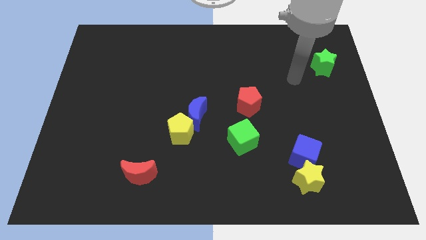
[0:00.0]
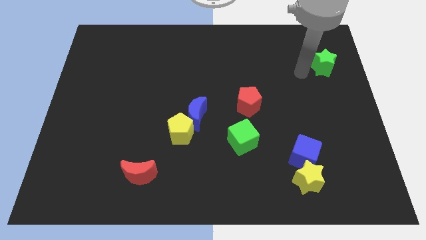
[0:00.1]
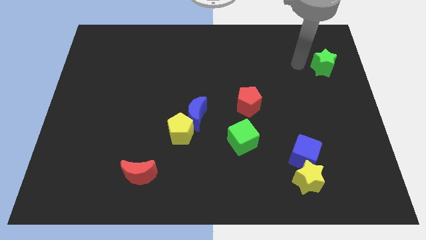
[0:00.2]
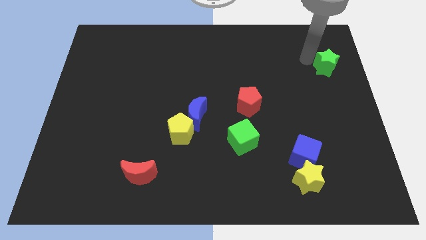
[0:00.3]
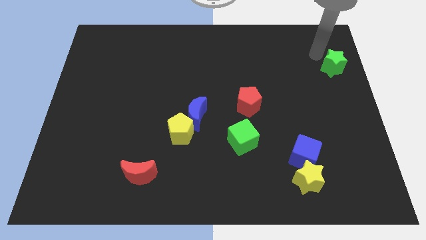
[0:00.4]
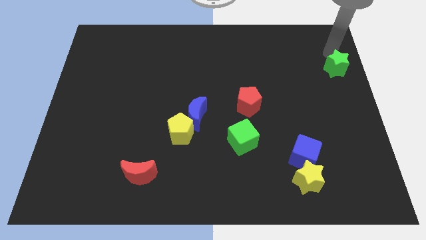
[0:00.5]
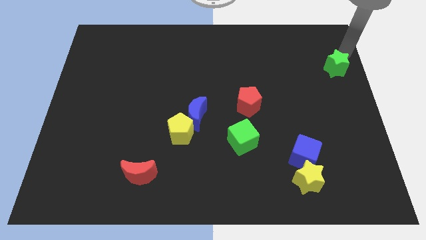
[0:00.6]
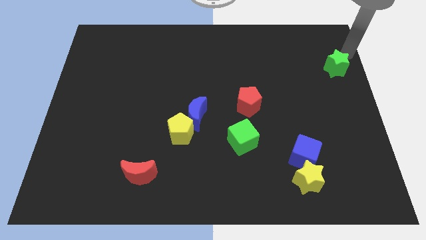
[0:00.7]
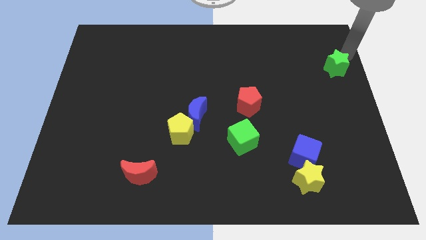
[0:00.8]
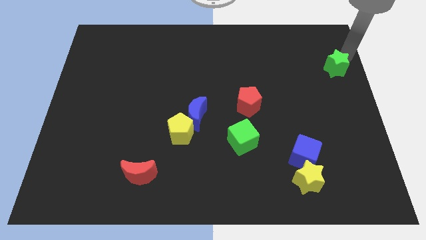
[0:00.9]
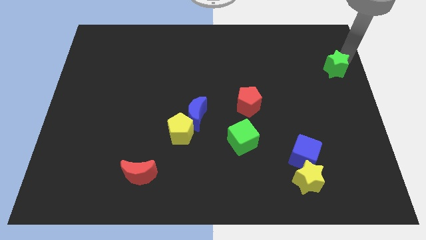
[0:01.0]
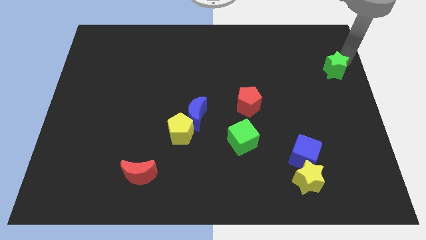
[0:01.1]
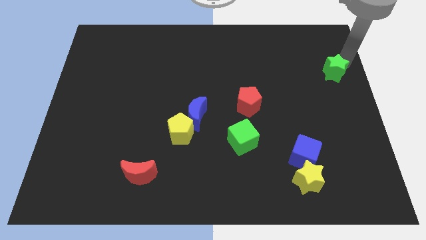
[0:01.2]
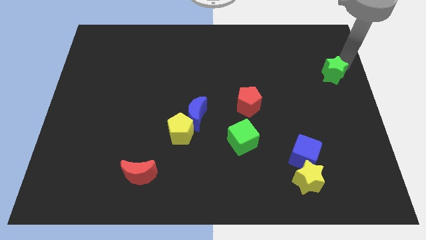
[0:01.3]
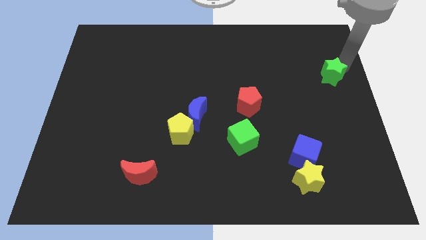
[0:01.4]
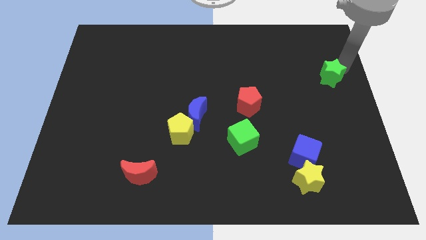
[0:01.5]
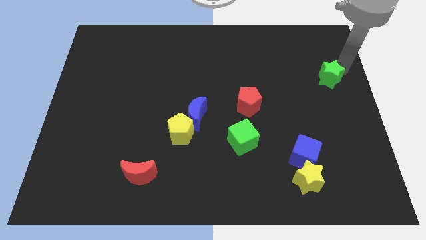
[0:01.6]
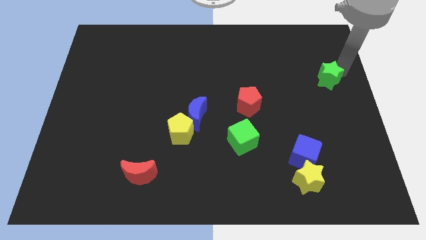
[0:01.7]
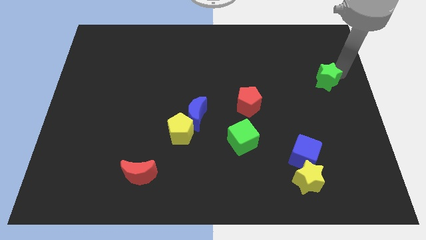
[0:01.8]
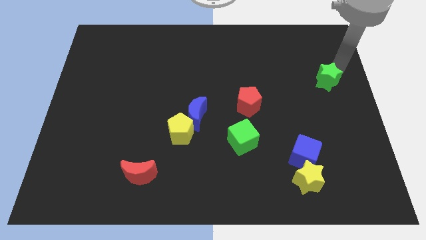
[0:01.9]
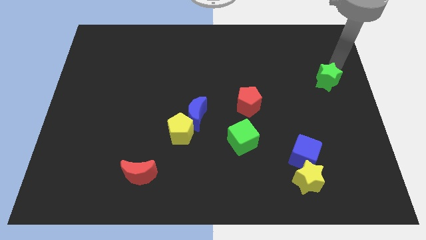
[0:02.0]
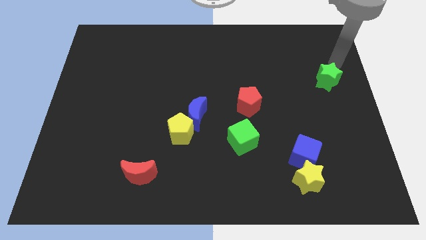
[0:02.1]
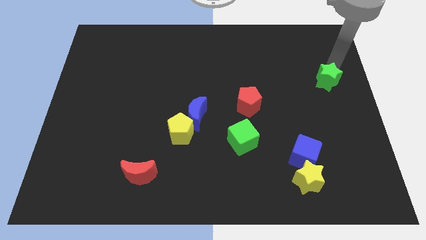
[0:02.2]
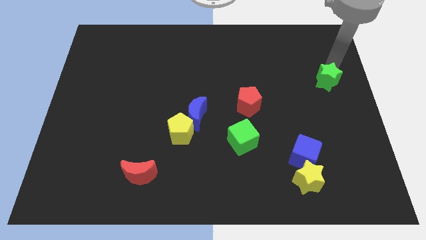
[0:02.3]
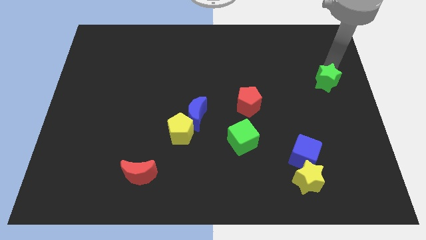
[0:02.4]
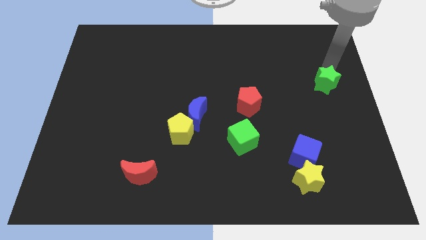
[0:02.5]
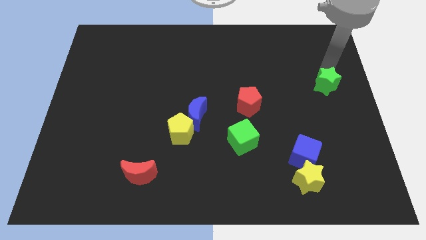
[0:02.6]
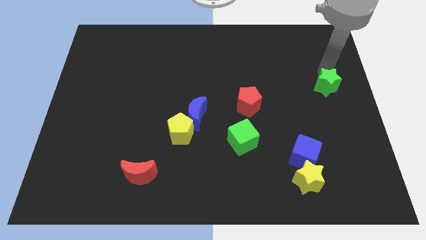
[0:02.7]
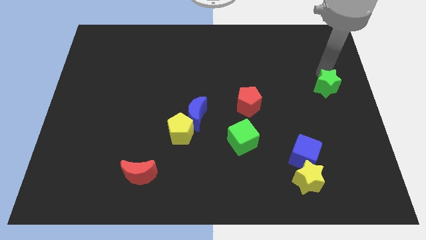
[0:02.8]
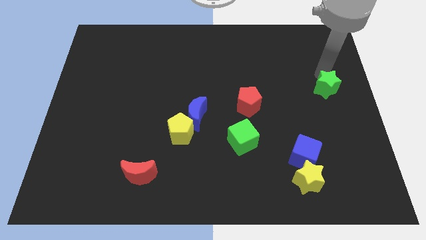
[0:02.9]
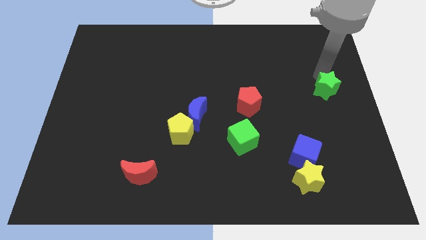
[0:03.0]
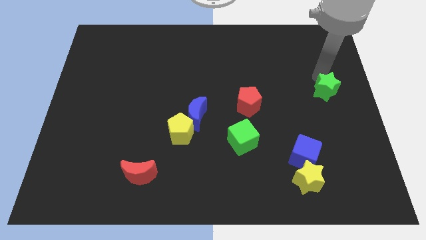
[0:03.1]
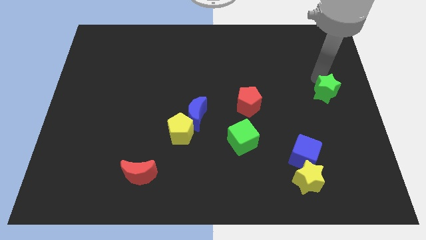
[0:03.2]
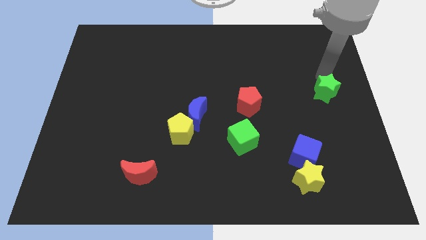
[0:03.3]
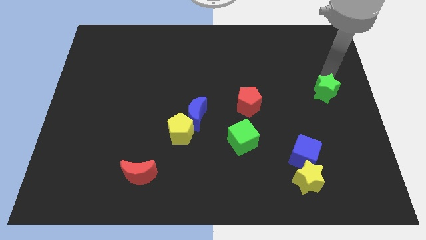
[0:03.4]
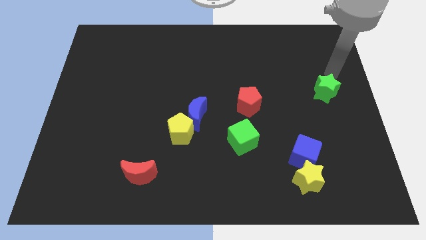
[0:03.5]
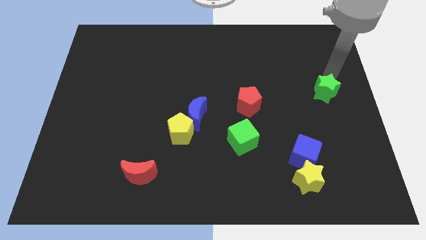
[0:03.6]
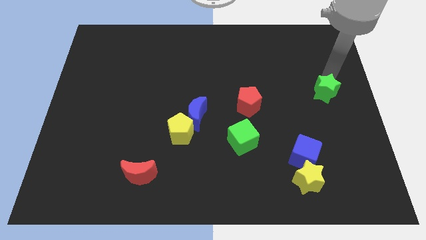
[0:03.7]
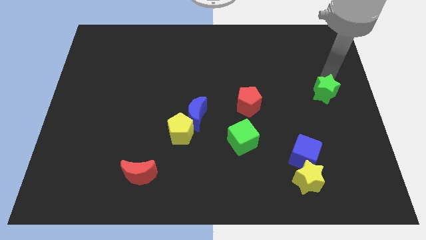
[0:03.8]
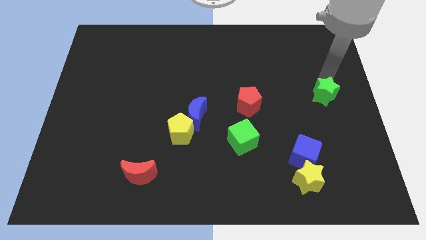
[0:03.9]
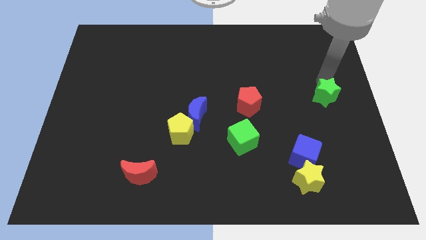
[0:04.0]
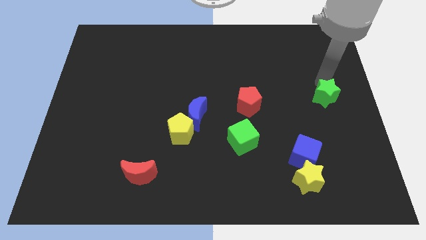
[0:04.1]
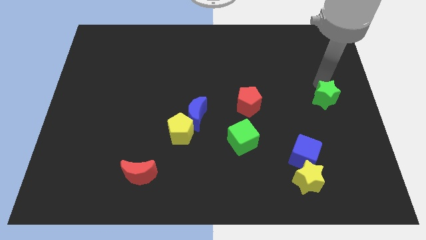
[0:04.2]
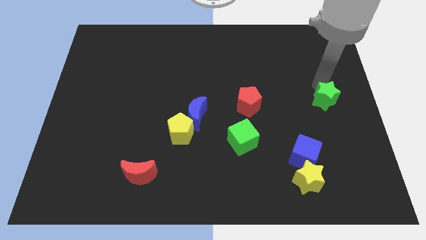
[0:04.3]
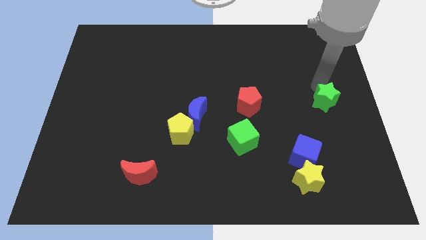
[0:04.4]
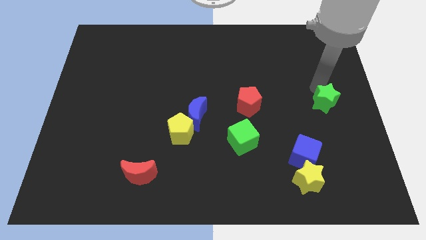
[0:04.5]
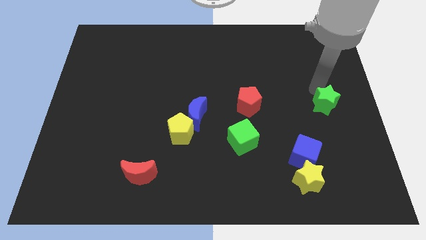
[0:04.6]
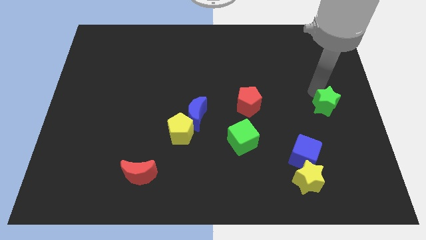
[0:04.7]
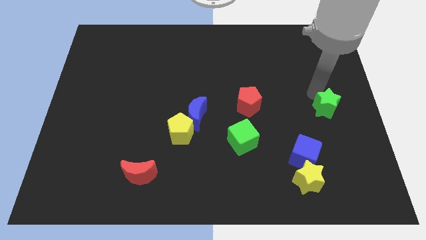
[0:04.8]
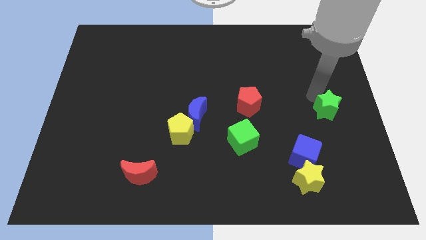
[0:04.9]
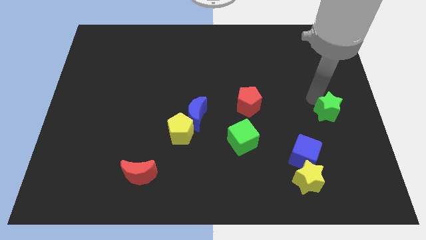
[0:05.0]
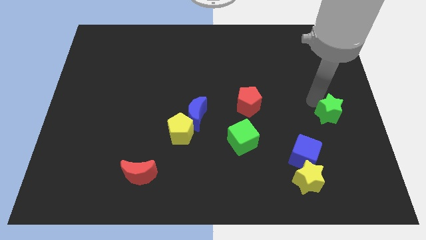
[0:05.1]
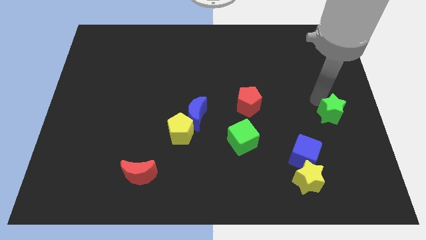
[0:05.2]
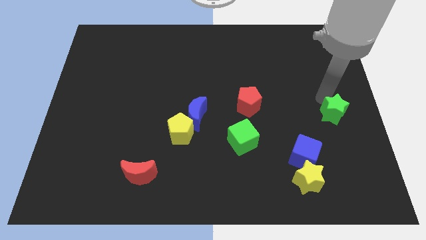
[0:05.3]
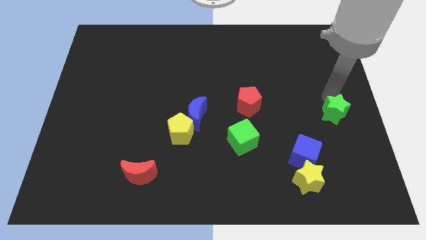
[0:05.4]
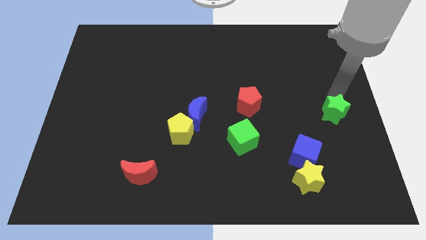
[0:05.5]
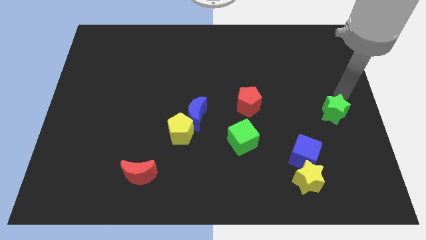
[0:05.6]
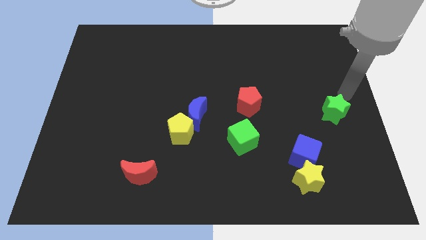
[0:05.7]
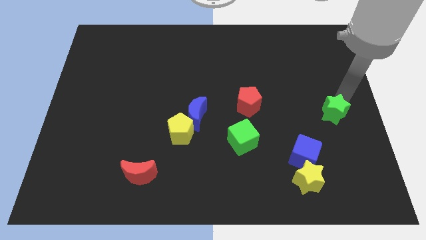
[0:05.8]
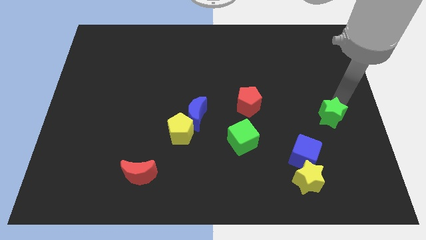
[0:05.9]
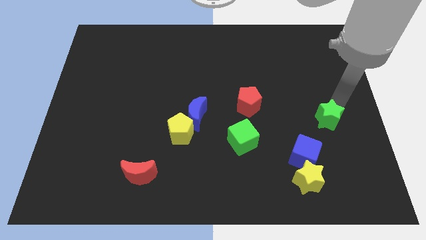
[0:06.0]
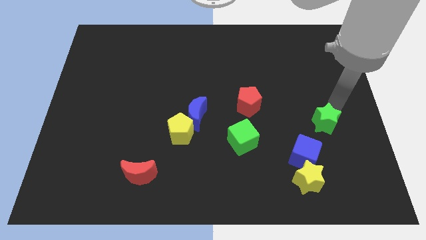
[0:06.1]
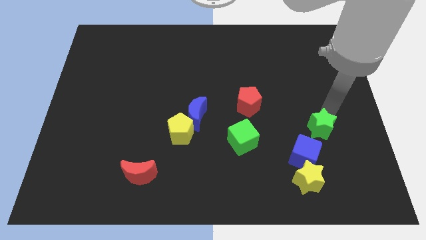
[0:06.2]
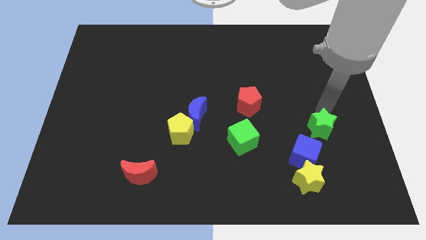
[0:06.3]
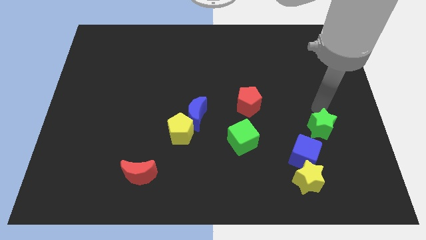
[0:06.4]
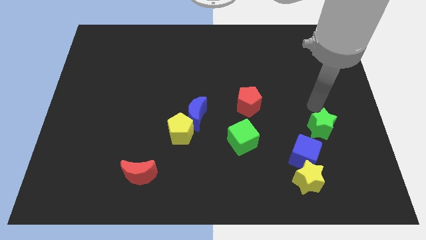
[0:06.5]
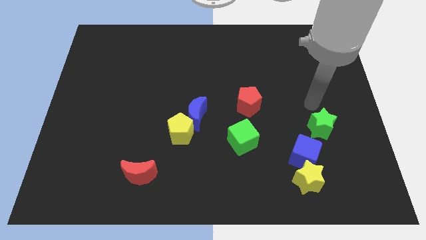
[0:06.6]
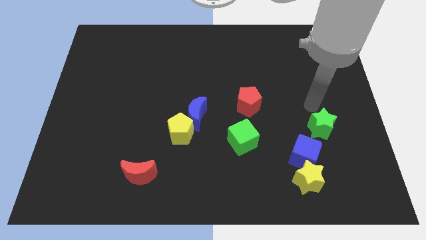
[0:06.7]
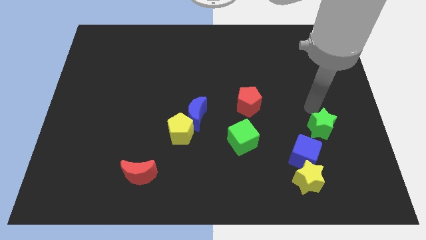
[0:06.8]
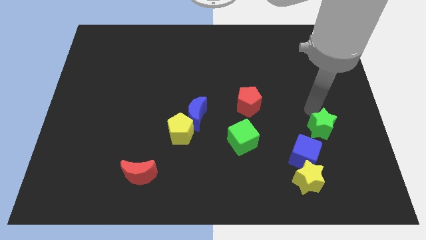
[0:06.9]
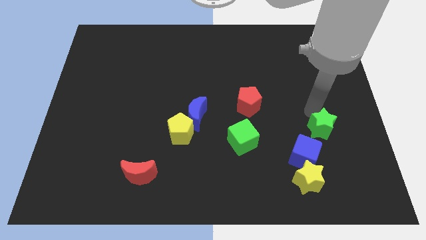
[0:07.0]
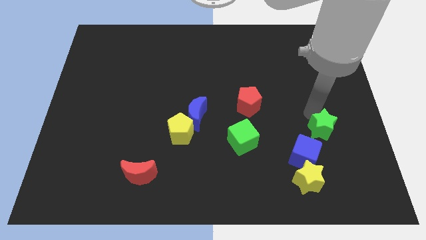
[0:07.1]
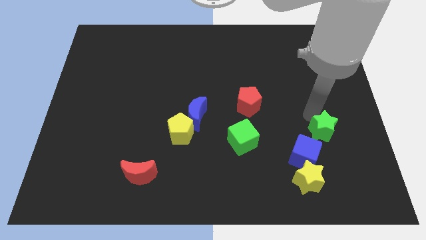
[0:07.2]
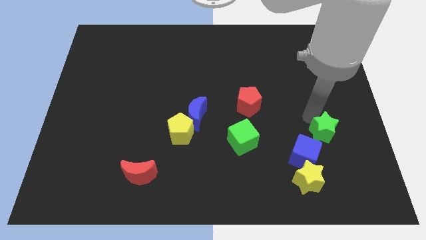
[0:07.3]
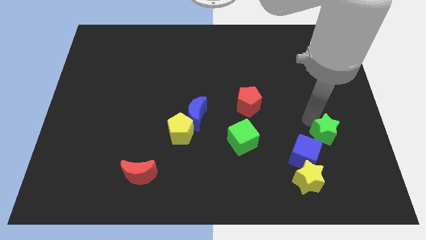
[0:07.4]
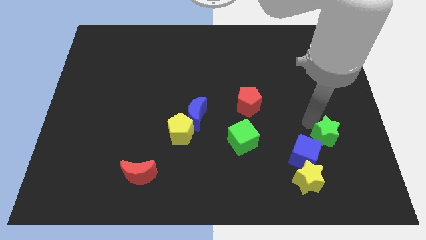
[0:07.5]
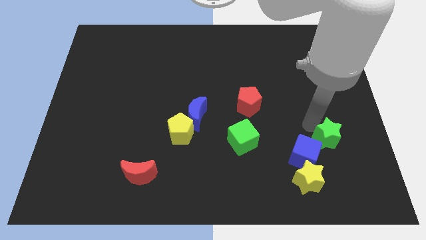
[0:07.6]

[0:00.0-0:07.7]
move the green star to the top right of the yellow star
